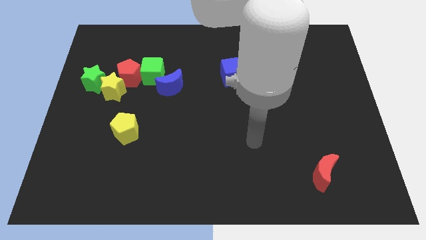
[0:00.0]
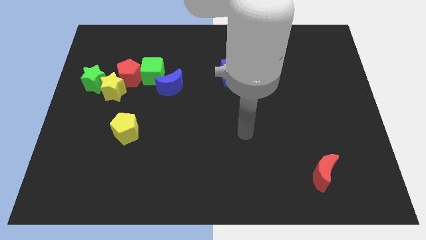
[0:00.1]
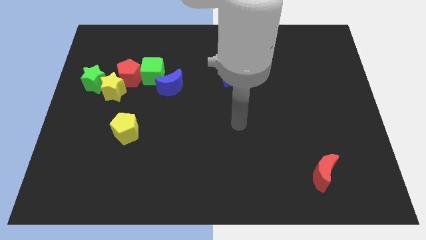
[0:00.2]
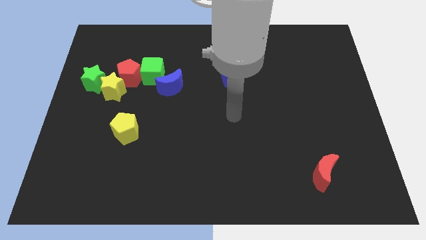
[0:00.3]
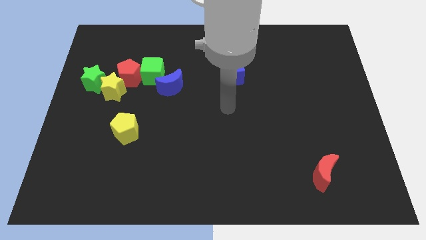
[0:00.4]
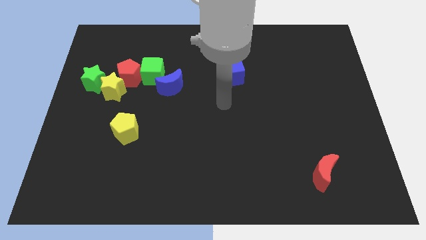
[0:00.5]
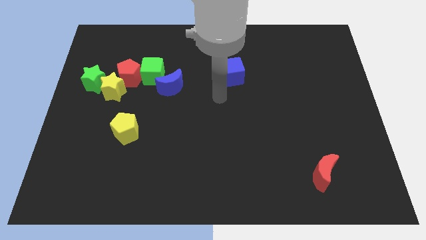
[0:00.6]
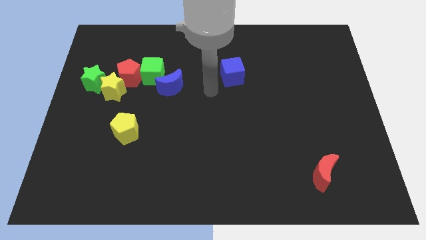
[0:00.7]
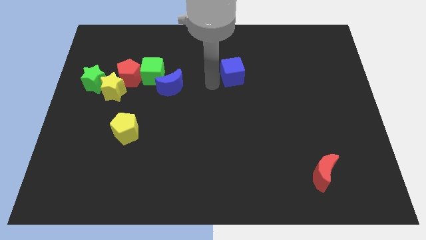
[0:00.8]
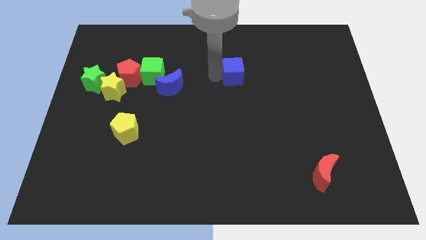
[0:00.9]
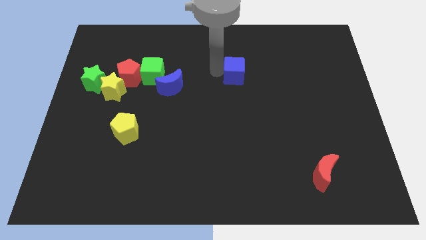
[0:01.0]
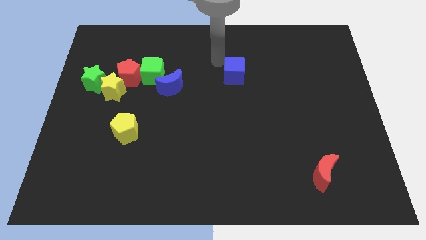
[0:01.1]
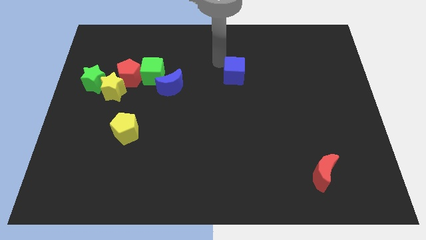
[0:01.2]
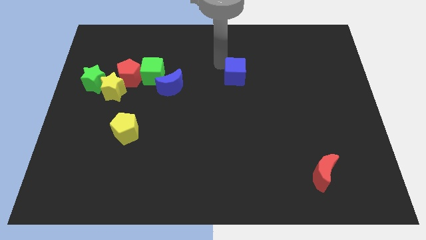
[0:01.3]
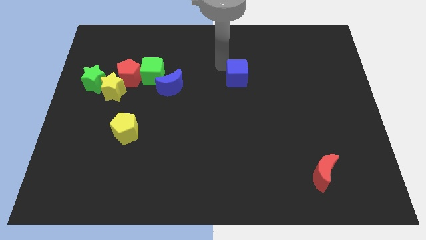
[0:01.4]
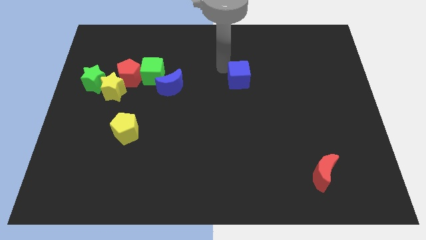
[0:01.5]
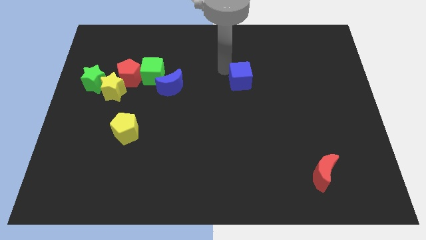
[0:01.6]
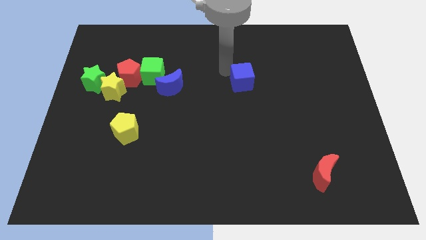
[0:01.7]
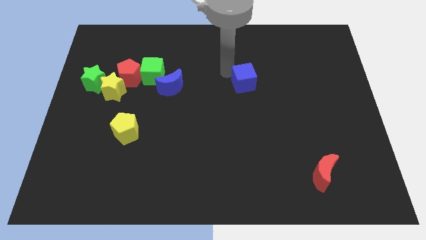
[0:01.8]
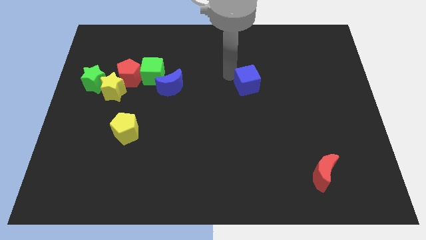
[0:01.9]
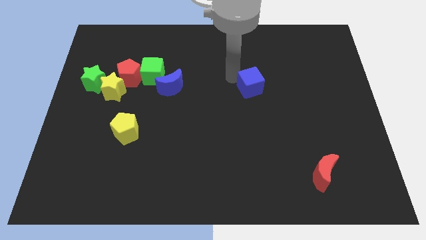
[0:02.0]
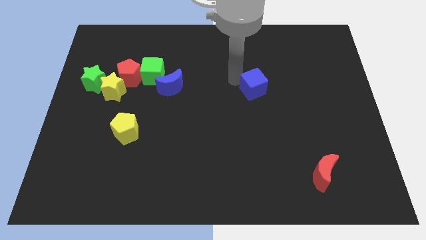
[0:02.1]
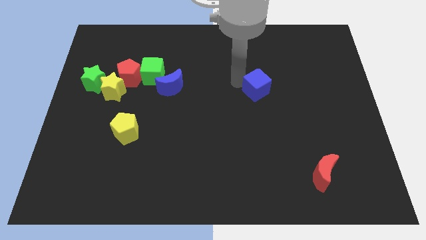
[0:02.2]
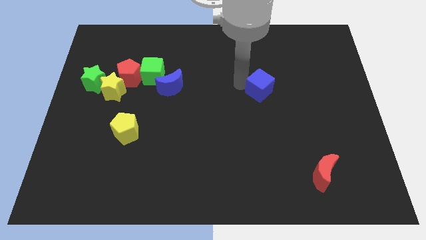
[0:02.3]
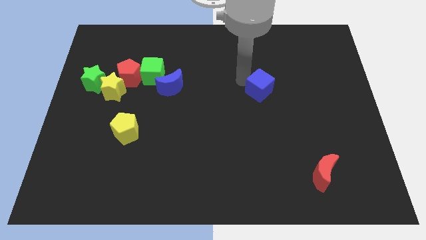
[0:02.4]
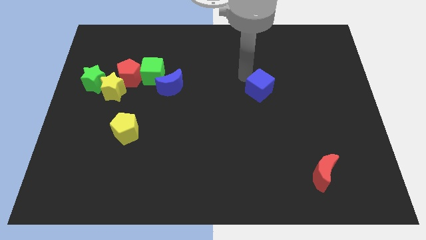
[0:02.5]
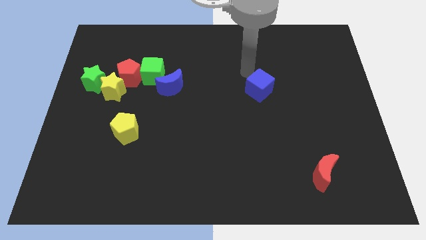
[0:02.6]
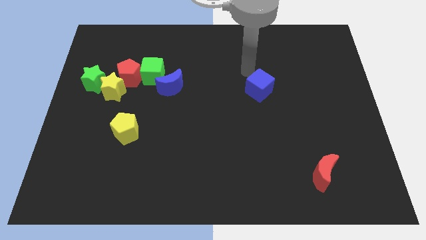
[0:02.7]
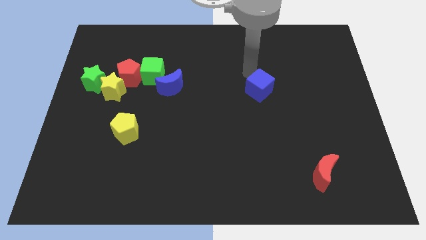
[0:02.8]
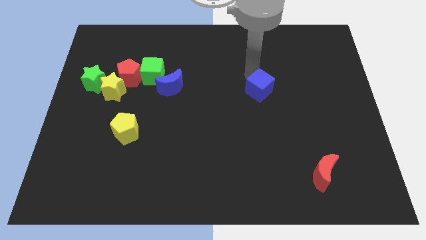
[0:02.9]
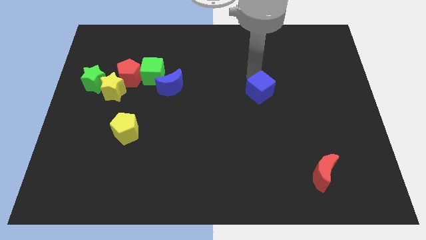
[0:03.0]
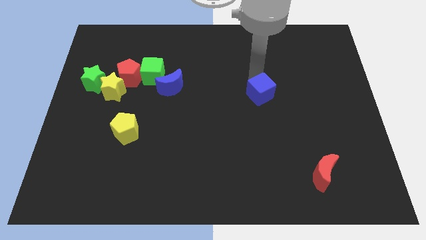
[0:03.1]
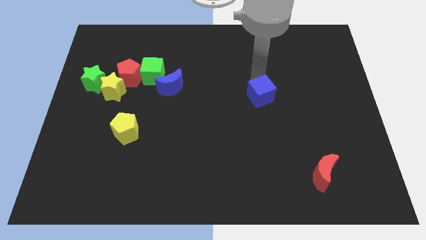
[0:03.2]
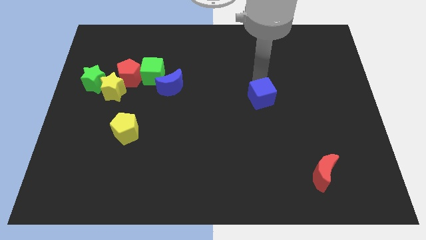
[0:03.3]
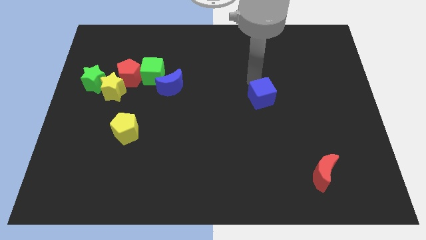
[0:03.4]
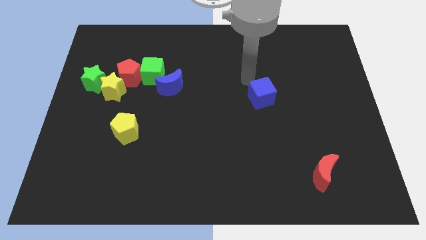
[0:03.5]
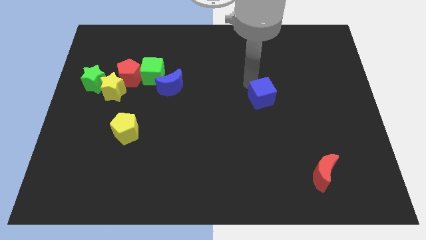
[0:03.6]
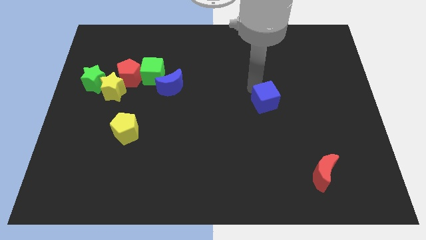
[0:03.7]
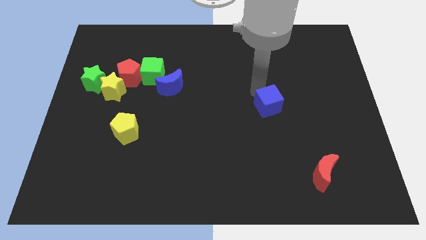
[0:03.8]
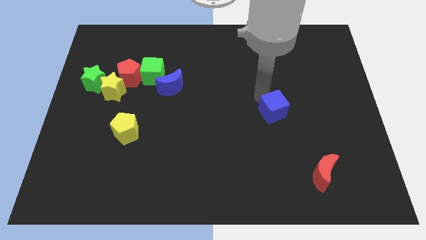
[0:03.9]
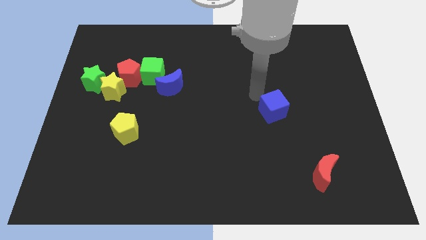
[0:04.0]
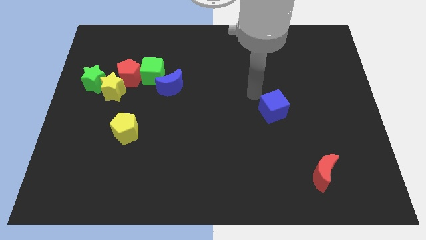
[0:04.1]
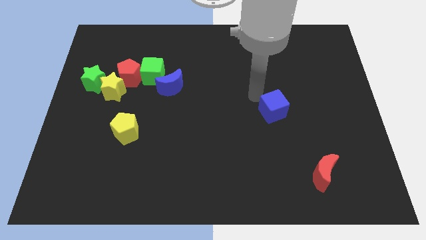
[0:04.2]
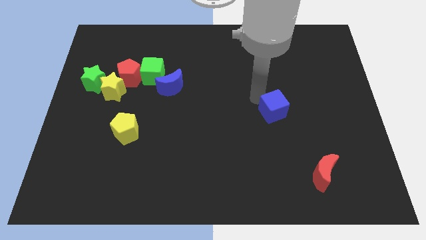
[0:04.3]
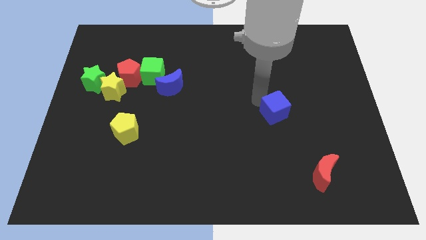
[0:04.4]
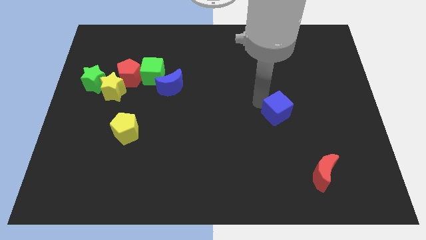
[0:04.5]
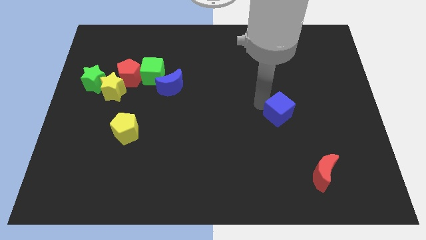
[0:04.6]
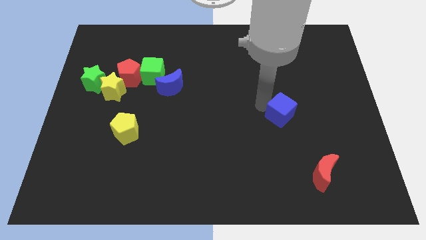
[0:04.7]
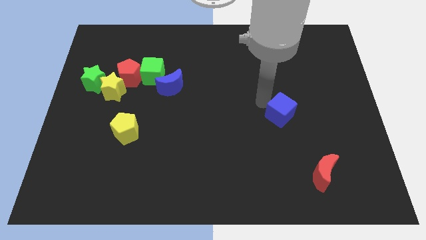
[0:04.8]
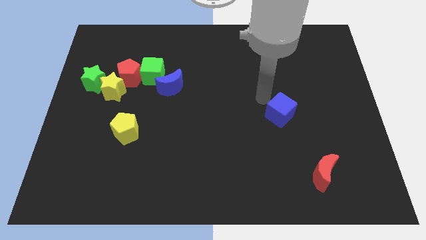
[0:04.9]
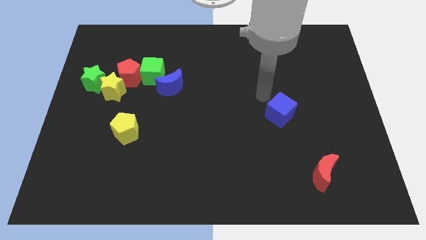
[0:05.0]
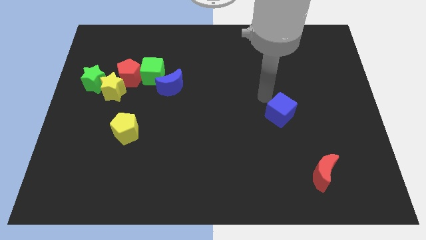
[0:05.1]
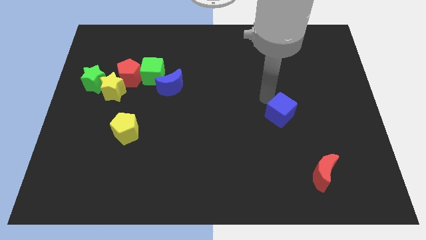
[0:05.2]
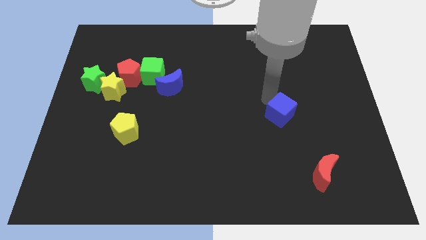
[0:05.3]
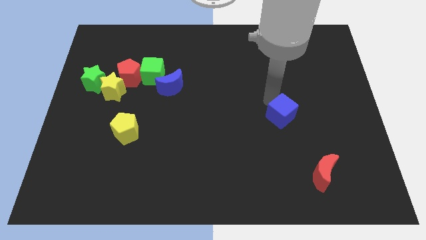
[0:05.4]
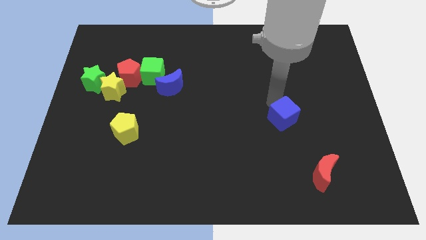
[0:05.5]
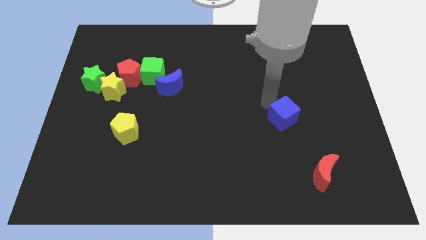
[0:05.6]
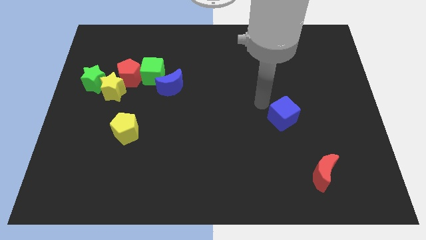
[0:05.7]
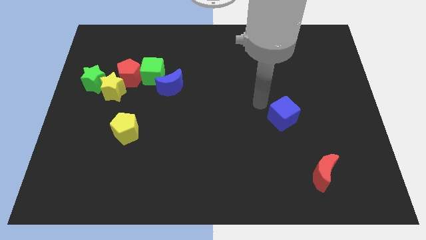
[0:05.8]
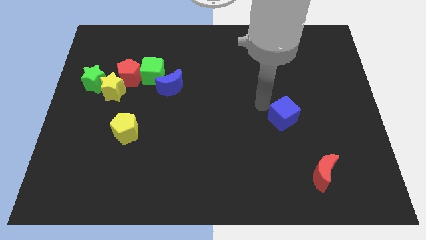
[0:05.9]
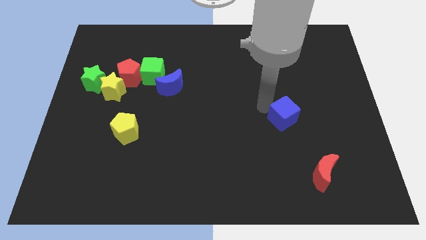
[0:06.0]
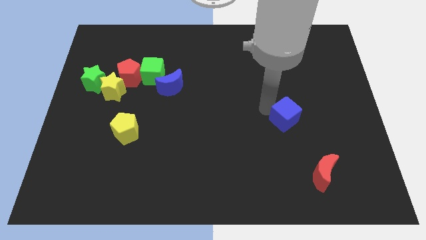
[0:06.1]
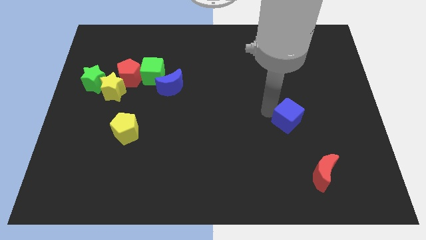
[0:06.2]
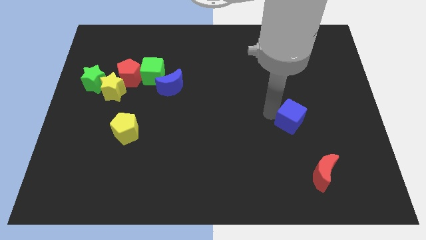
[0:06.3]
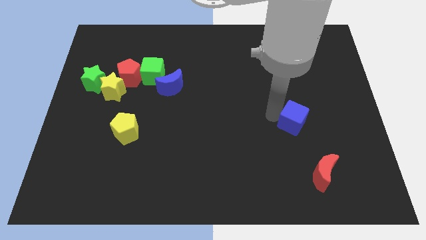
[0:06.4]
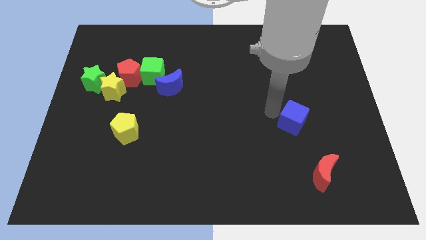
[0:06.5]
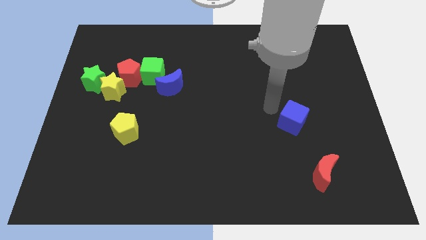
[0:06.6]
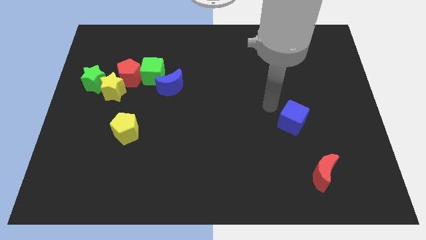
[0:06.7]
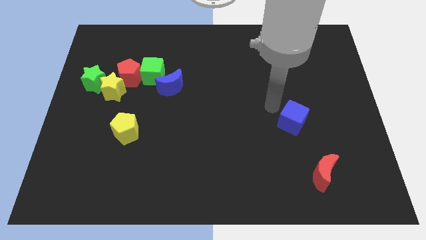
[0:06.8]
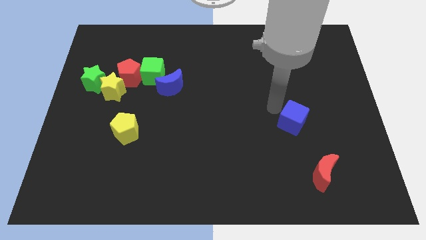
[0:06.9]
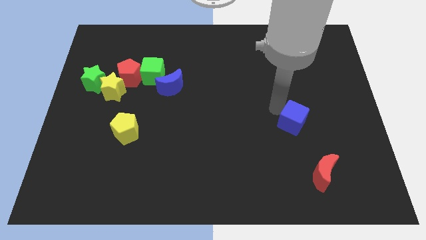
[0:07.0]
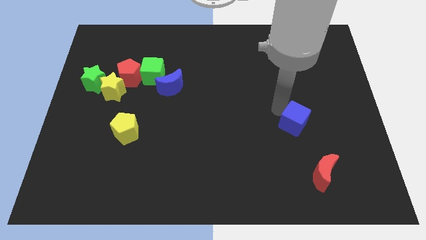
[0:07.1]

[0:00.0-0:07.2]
slide the blue cube diagonally down and to the right

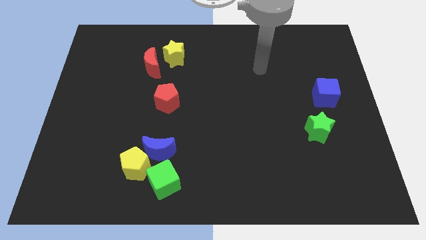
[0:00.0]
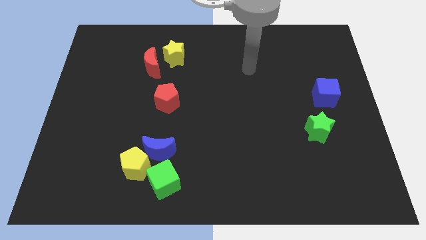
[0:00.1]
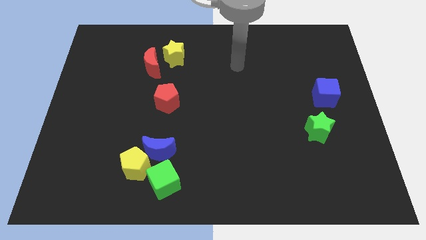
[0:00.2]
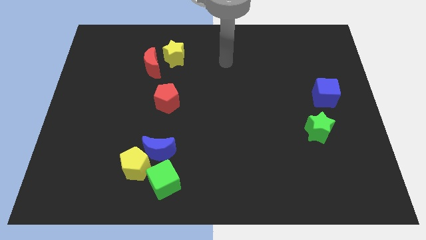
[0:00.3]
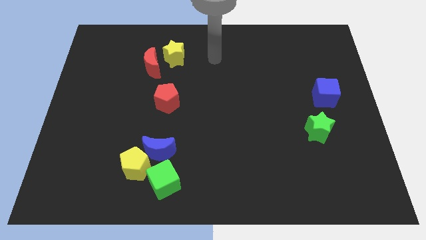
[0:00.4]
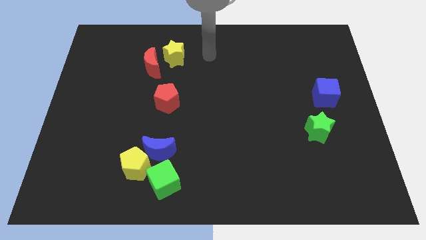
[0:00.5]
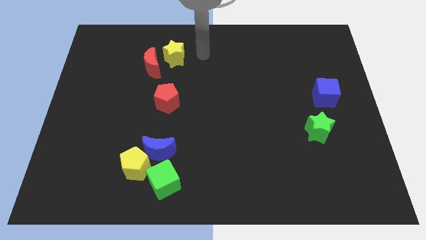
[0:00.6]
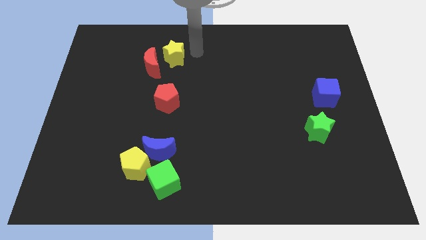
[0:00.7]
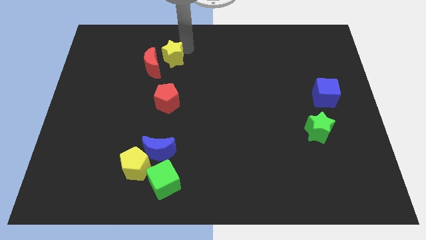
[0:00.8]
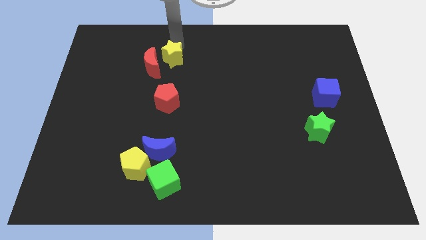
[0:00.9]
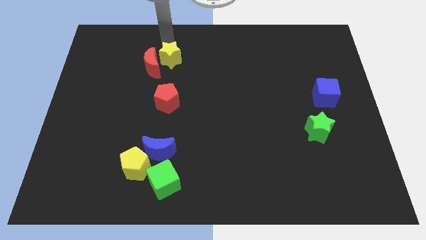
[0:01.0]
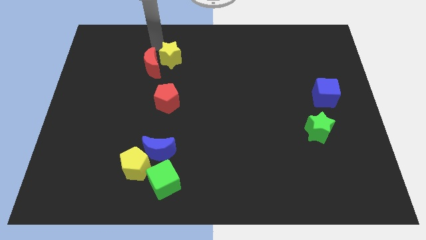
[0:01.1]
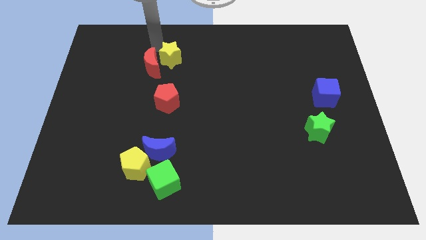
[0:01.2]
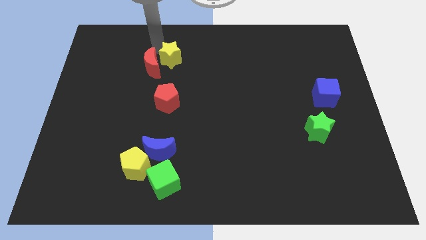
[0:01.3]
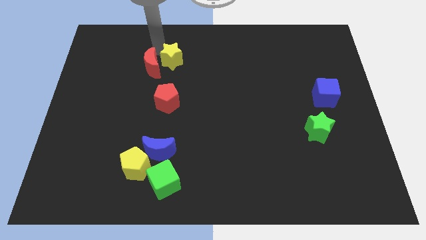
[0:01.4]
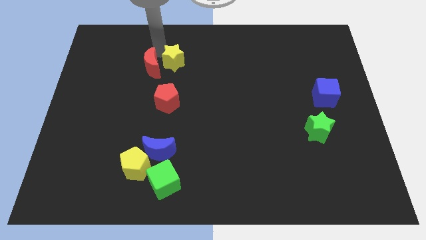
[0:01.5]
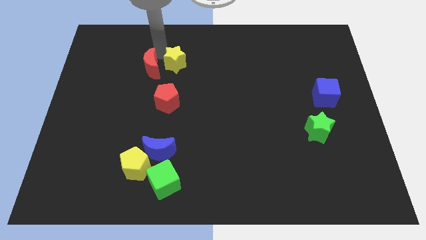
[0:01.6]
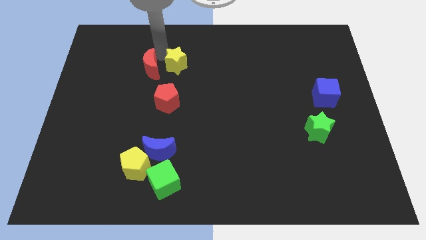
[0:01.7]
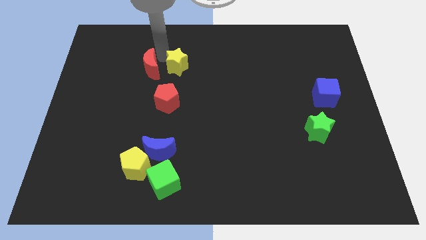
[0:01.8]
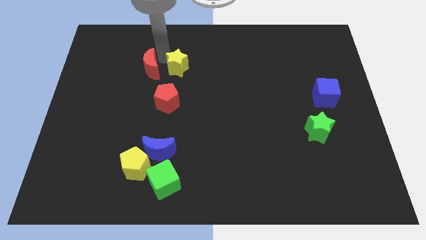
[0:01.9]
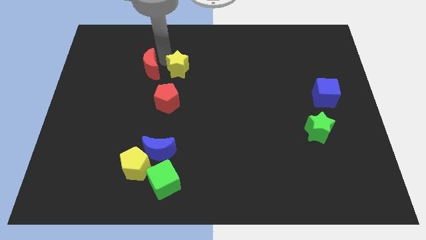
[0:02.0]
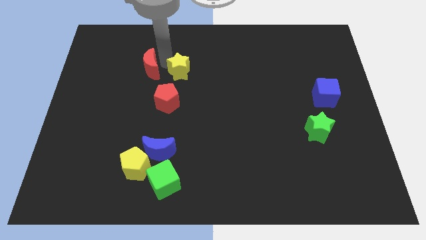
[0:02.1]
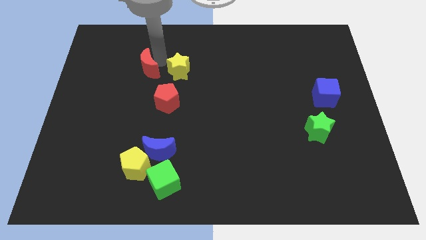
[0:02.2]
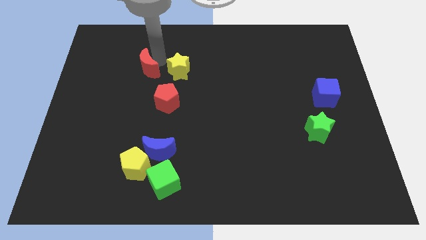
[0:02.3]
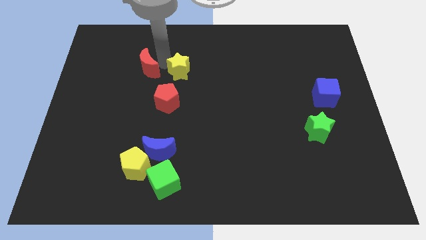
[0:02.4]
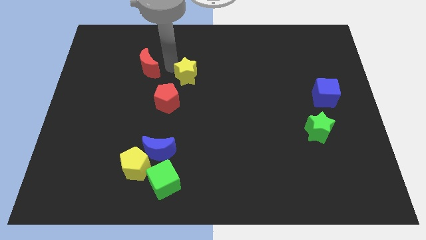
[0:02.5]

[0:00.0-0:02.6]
slightly move the yellow star down and right
